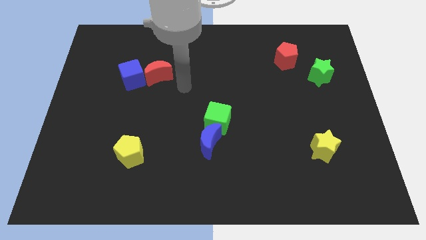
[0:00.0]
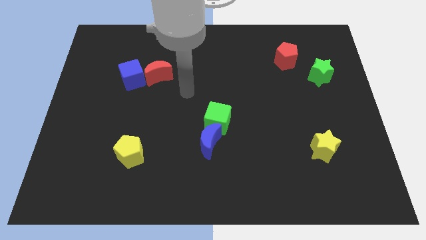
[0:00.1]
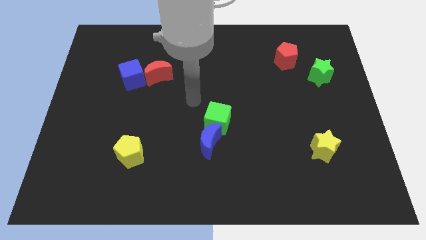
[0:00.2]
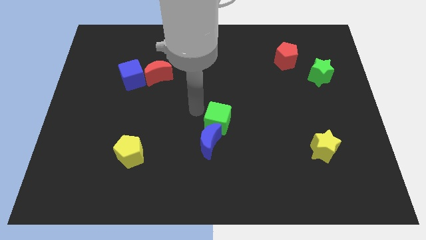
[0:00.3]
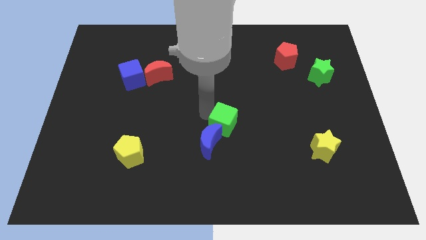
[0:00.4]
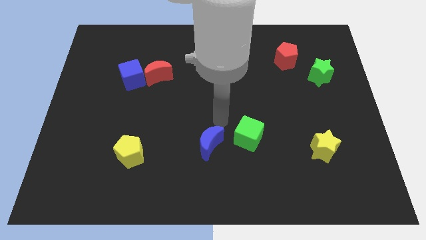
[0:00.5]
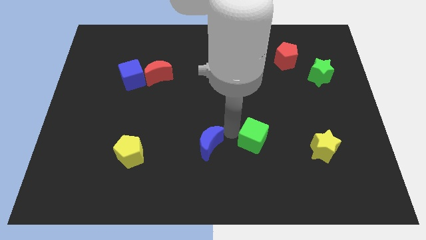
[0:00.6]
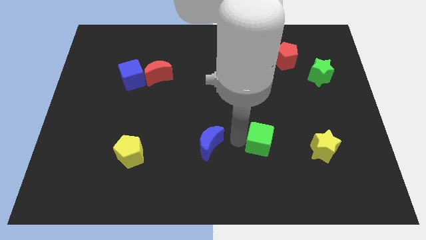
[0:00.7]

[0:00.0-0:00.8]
pull the blue moon apart from the green cube

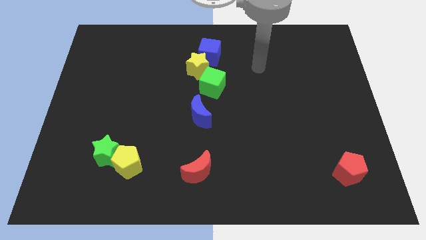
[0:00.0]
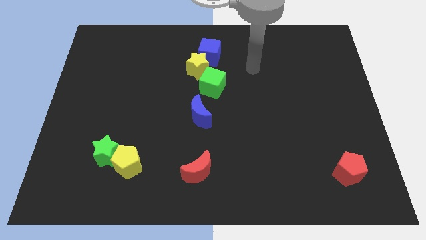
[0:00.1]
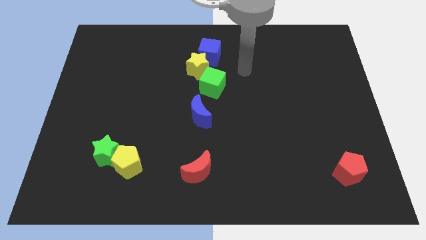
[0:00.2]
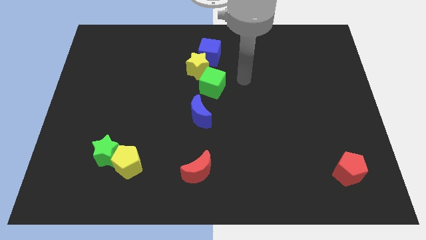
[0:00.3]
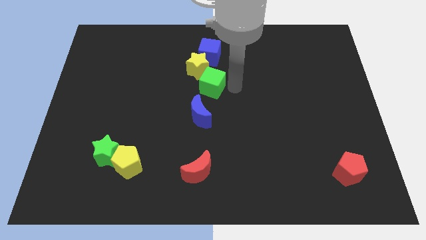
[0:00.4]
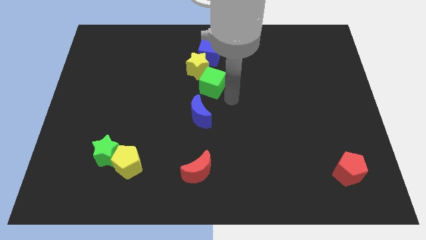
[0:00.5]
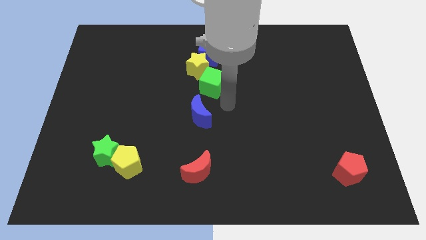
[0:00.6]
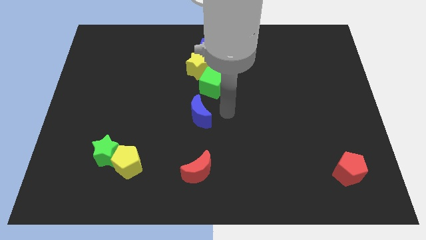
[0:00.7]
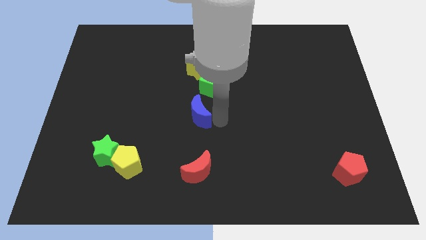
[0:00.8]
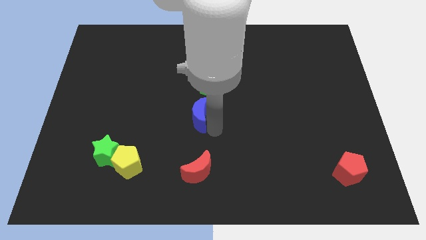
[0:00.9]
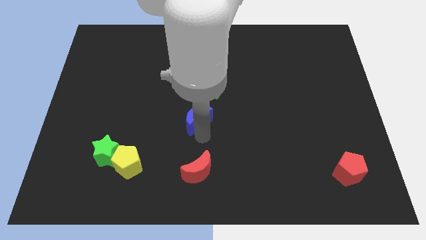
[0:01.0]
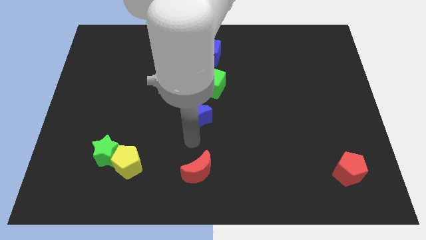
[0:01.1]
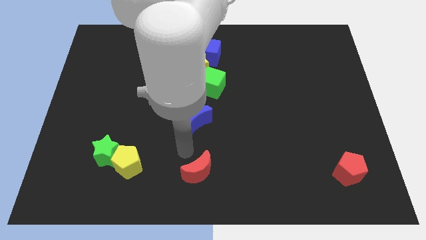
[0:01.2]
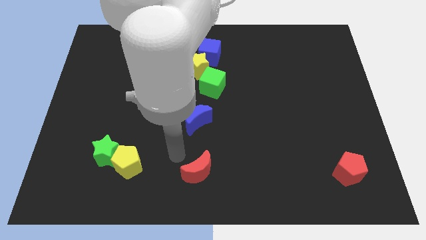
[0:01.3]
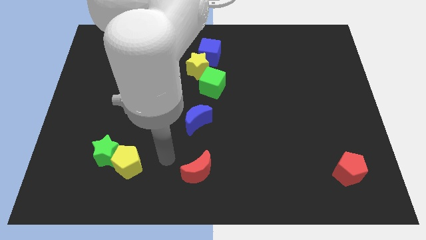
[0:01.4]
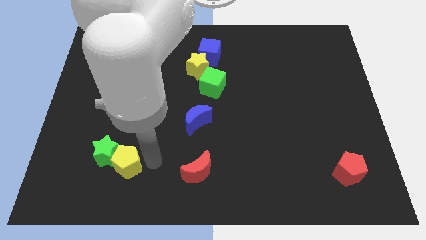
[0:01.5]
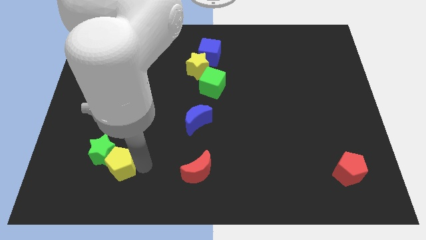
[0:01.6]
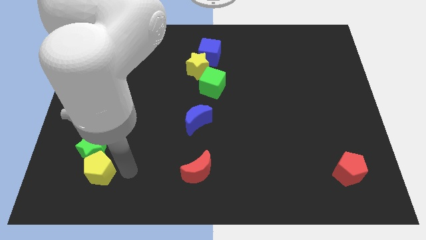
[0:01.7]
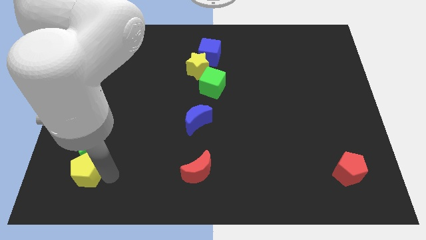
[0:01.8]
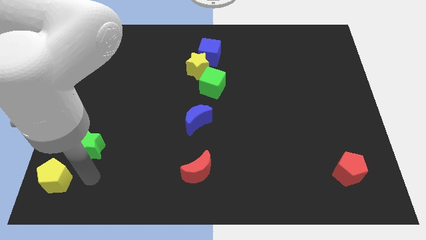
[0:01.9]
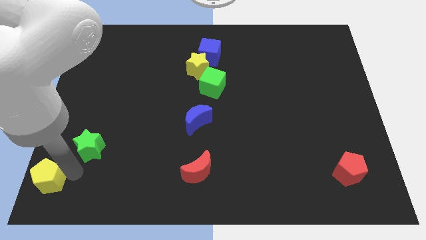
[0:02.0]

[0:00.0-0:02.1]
separate the green star from the yellow pentagon

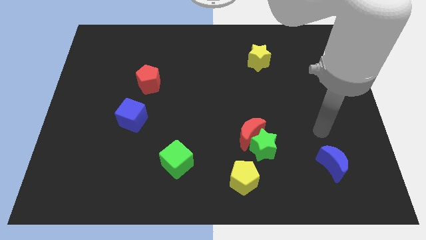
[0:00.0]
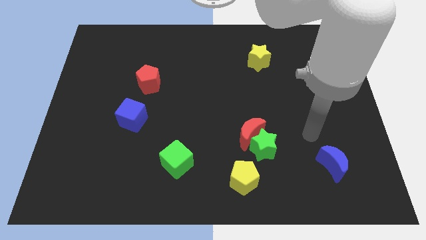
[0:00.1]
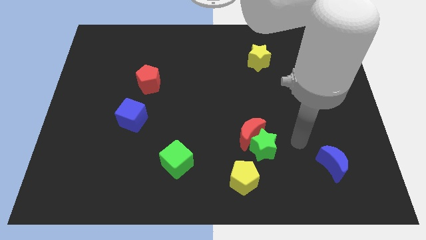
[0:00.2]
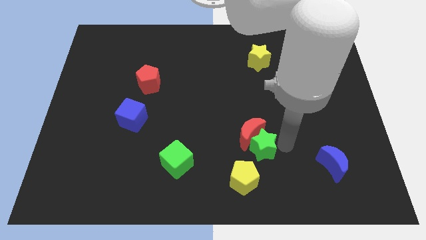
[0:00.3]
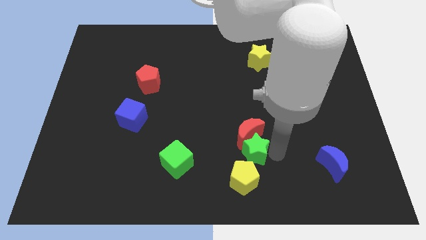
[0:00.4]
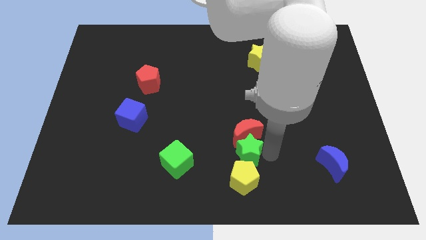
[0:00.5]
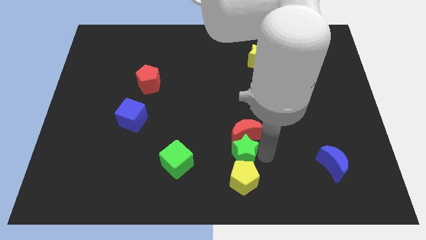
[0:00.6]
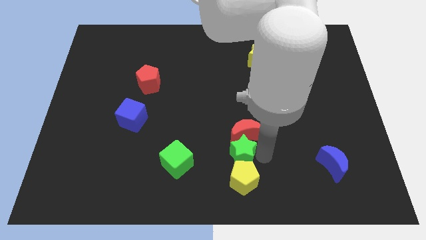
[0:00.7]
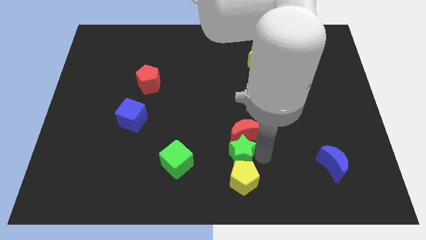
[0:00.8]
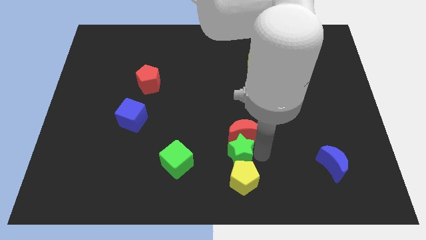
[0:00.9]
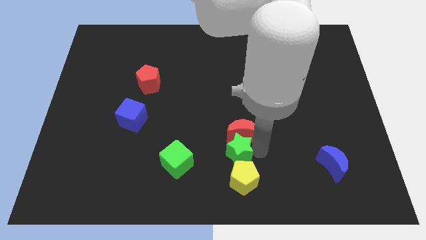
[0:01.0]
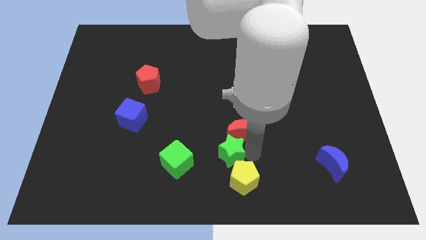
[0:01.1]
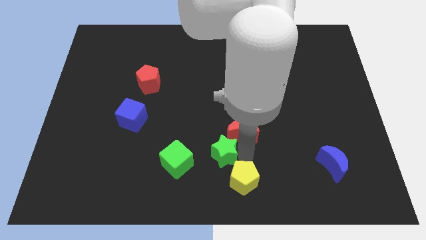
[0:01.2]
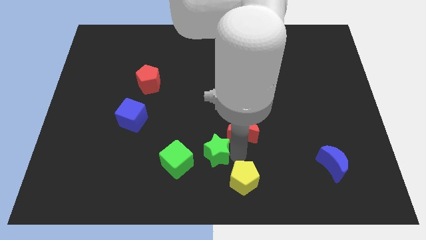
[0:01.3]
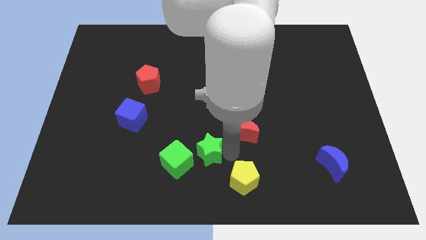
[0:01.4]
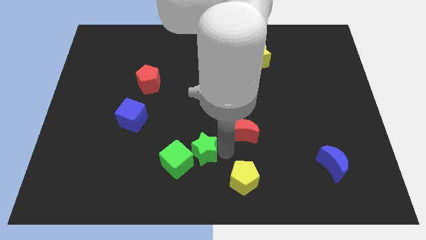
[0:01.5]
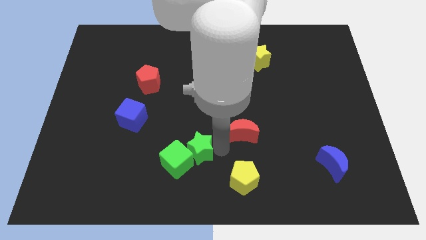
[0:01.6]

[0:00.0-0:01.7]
separate the red moon from the green star

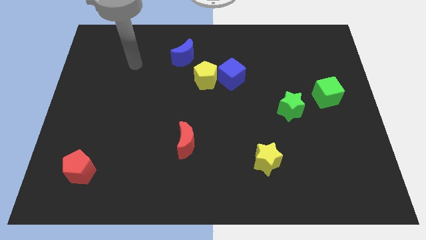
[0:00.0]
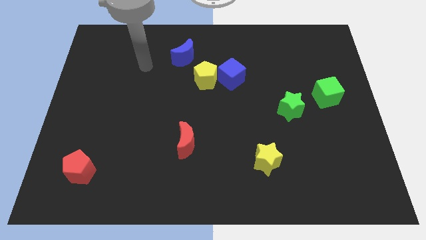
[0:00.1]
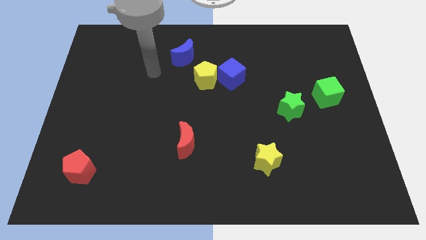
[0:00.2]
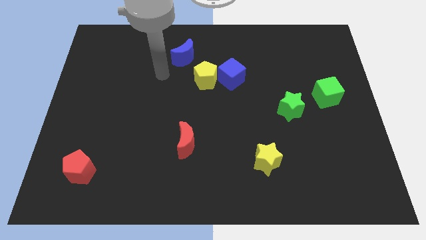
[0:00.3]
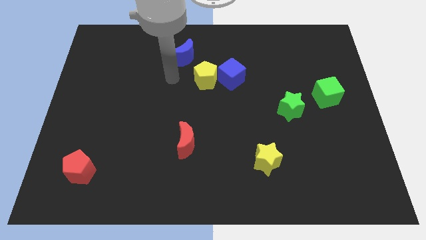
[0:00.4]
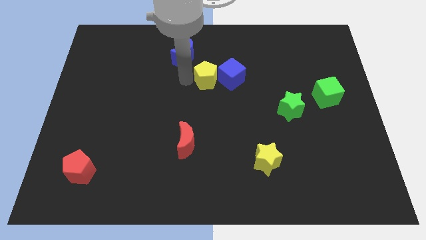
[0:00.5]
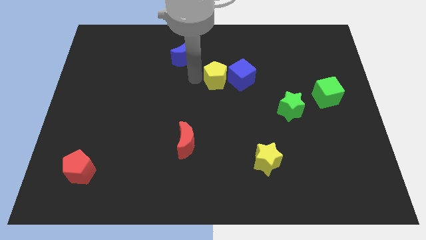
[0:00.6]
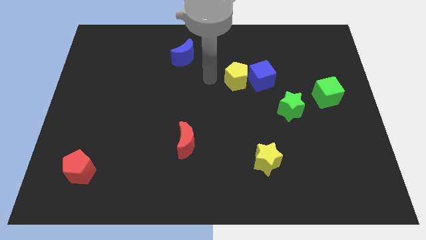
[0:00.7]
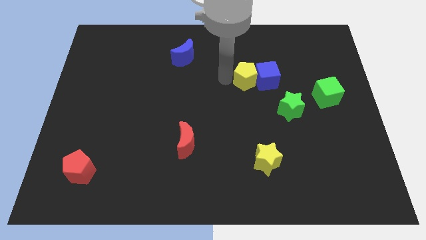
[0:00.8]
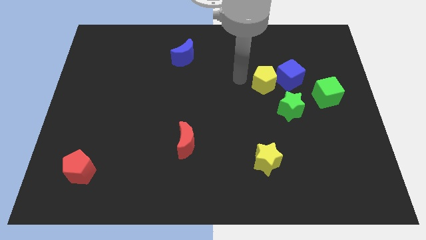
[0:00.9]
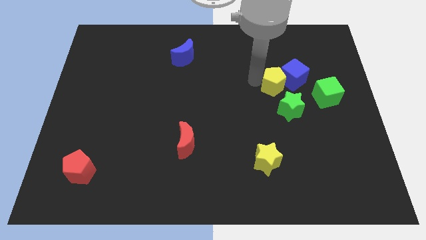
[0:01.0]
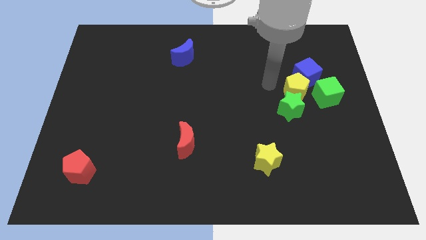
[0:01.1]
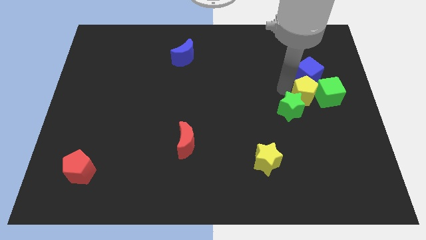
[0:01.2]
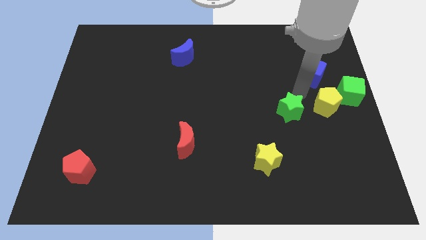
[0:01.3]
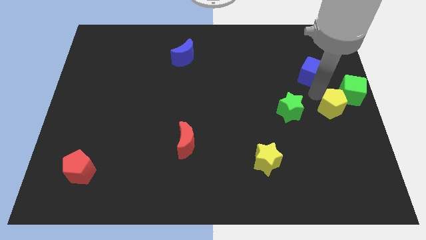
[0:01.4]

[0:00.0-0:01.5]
move the blue cube away from the yellow pentagon

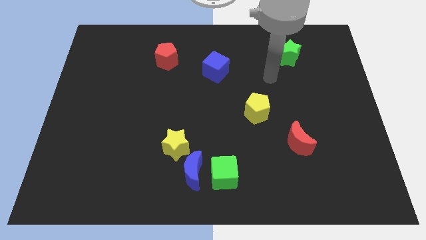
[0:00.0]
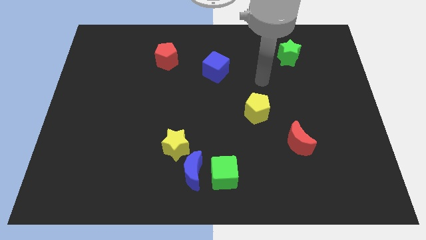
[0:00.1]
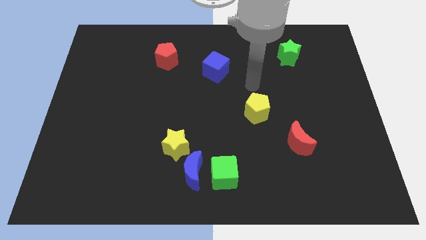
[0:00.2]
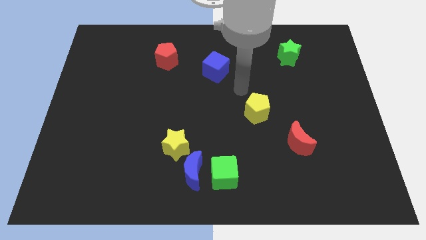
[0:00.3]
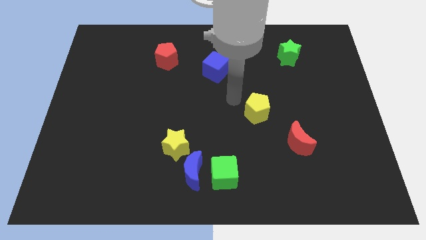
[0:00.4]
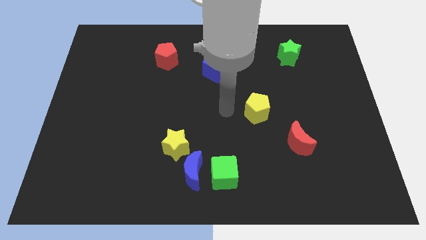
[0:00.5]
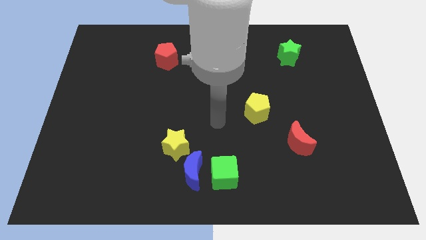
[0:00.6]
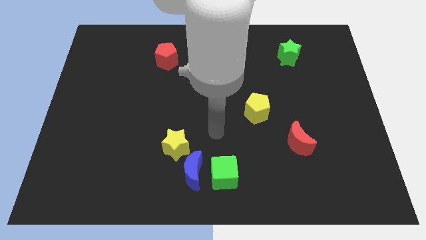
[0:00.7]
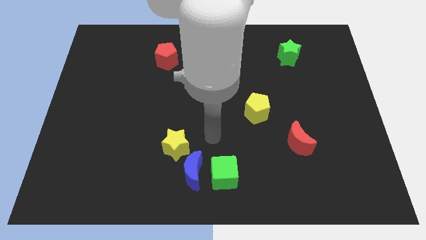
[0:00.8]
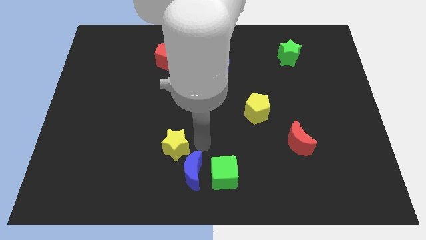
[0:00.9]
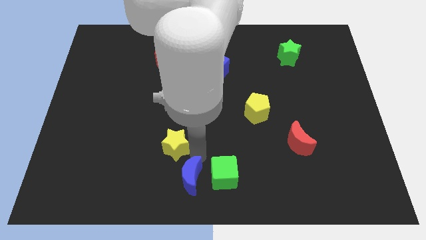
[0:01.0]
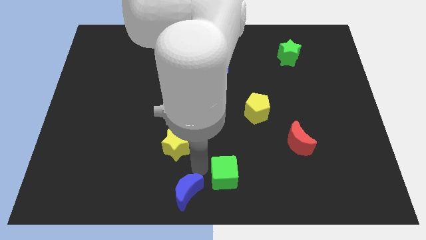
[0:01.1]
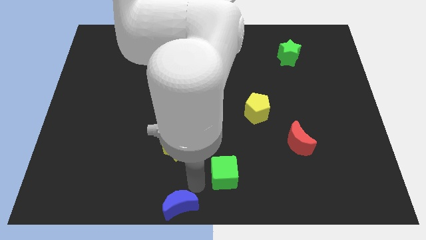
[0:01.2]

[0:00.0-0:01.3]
pull the green cube apart from the blue moon

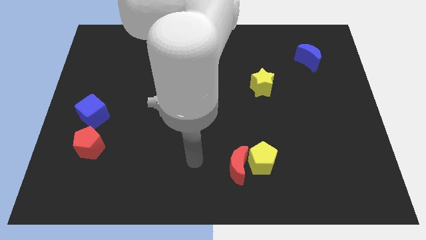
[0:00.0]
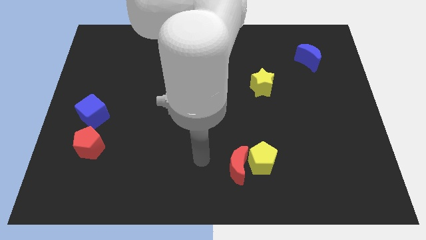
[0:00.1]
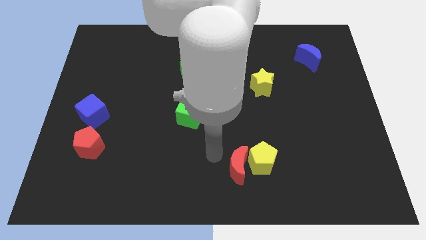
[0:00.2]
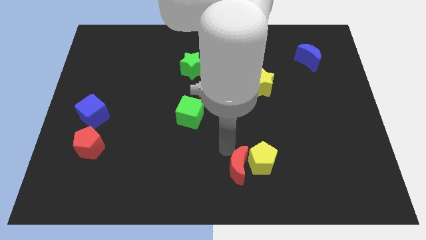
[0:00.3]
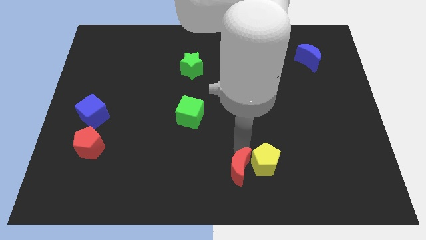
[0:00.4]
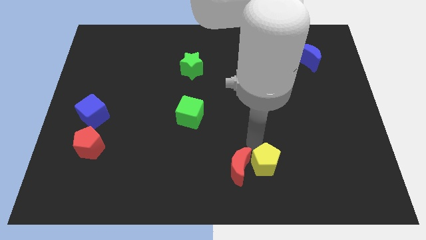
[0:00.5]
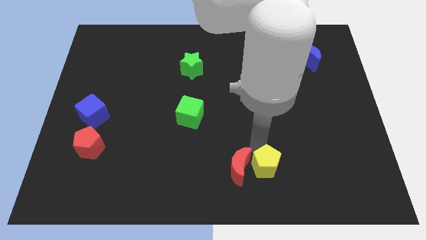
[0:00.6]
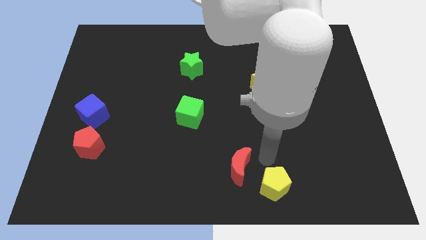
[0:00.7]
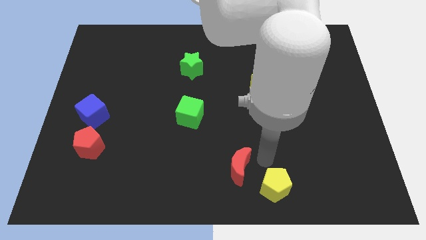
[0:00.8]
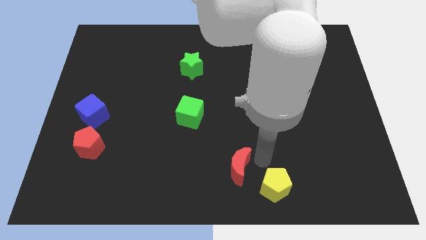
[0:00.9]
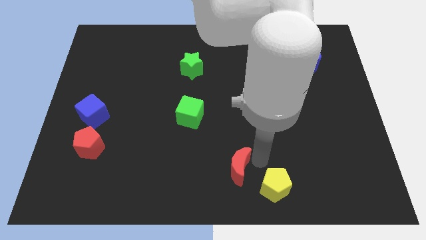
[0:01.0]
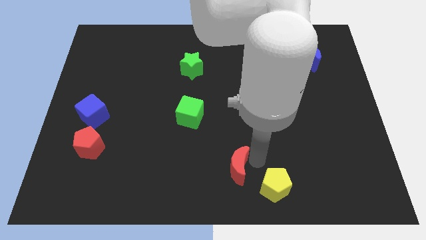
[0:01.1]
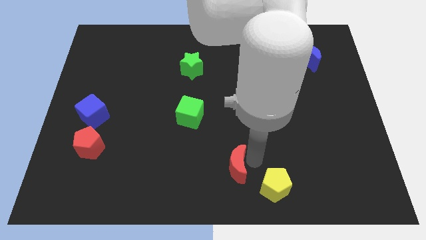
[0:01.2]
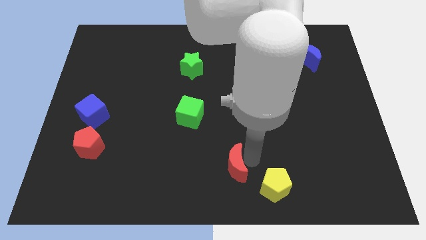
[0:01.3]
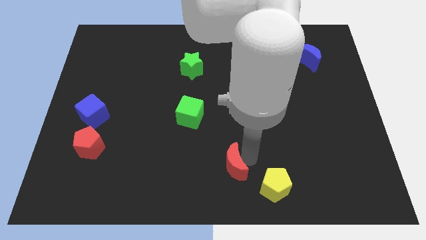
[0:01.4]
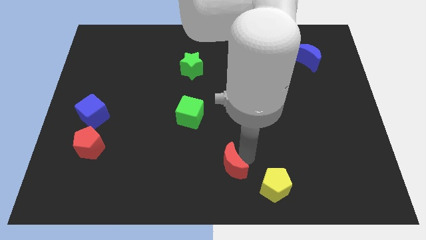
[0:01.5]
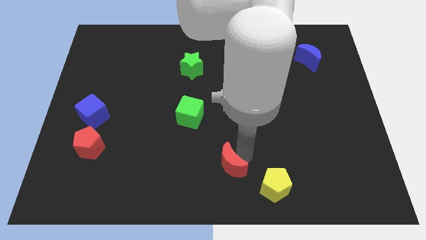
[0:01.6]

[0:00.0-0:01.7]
separate the red moon from the yellow pentagon

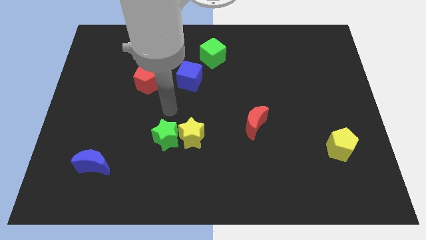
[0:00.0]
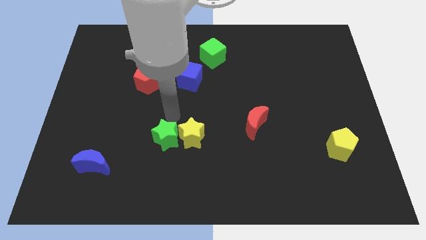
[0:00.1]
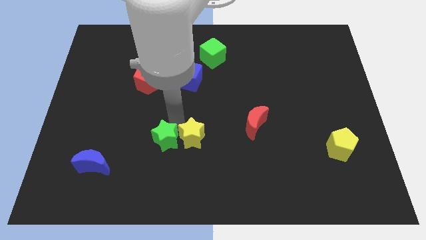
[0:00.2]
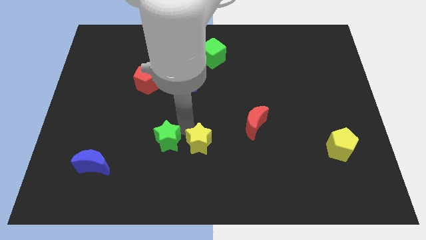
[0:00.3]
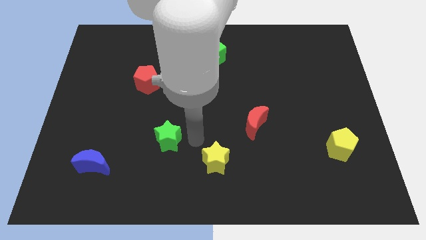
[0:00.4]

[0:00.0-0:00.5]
pull the green star apart from the yellow star
